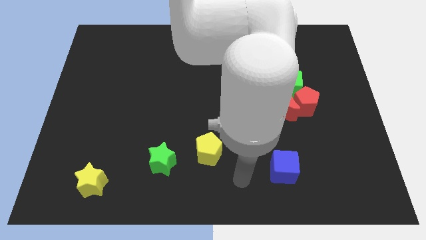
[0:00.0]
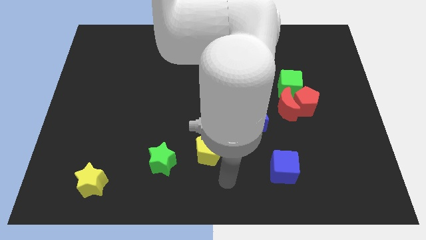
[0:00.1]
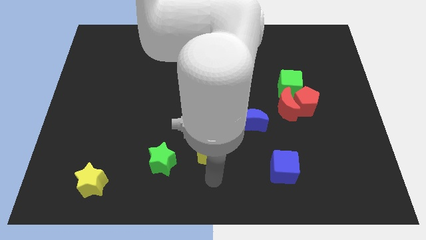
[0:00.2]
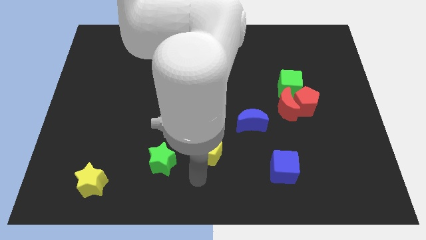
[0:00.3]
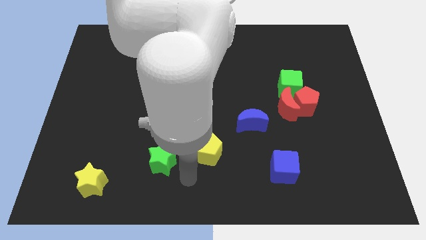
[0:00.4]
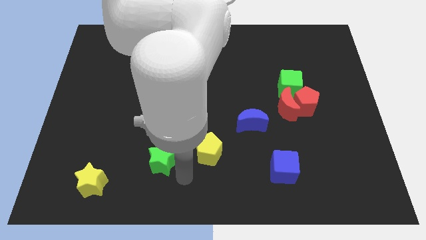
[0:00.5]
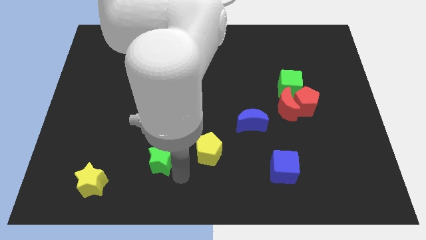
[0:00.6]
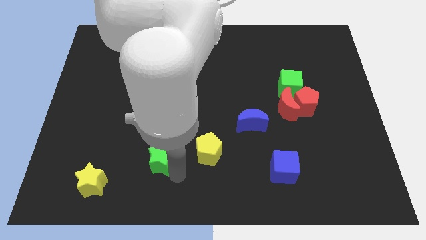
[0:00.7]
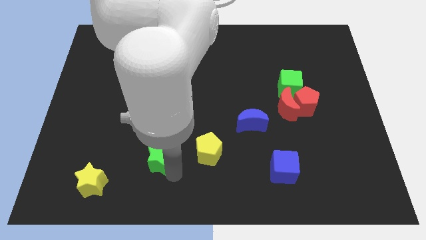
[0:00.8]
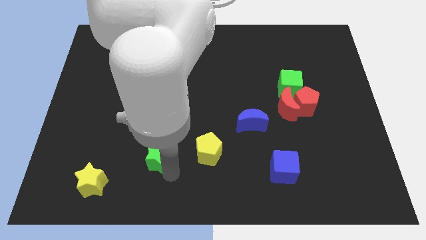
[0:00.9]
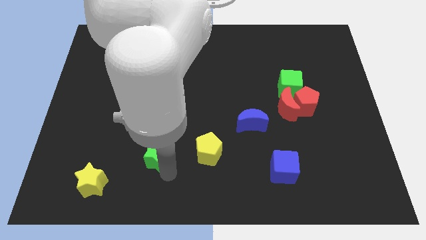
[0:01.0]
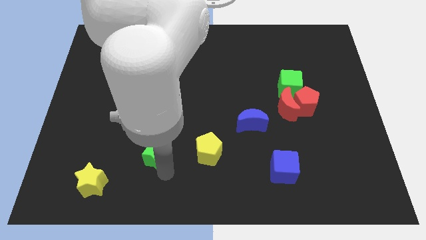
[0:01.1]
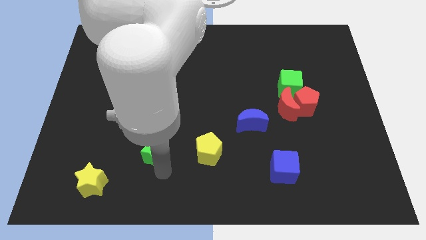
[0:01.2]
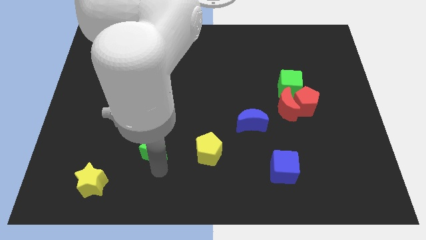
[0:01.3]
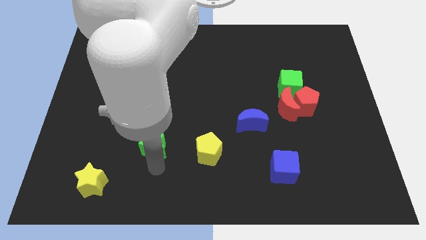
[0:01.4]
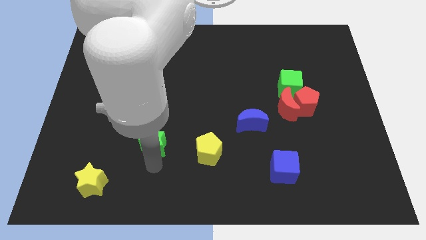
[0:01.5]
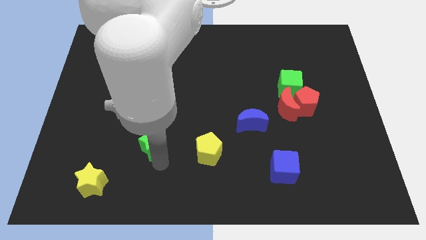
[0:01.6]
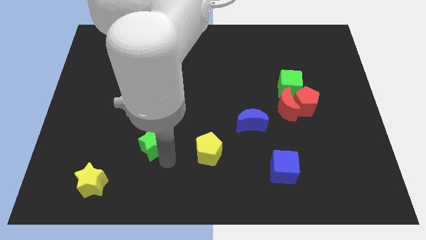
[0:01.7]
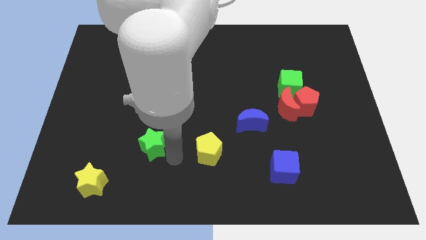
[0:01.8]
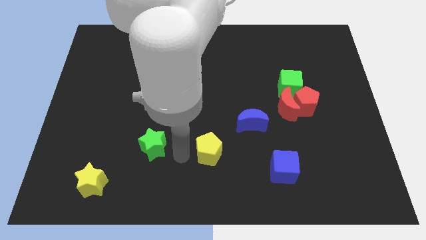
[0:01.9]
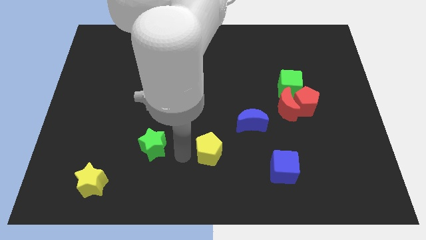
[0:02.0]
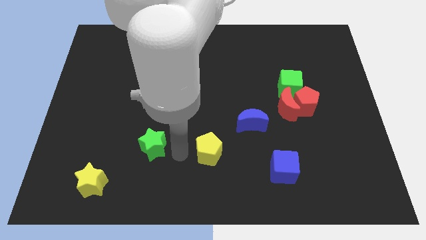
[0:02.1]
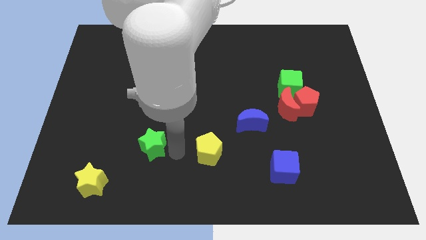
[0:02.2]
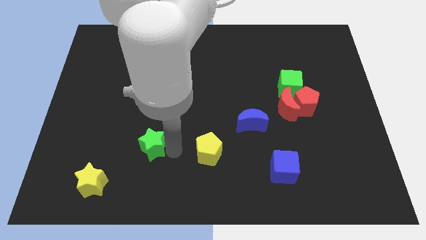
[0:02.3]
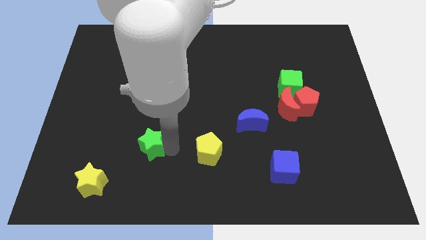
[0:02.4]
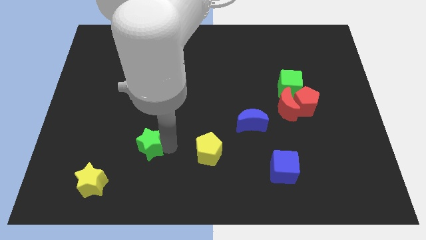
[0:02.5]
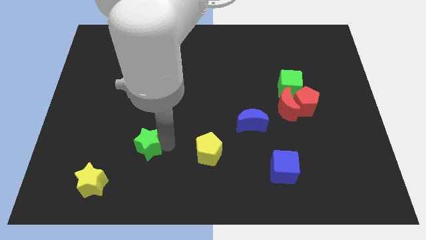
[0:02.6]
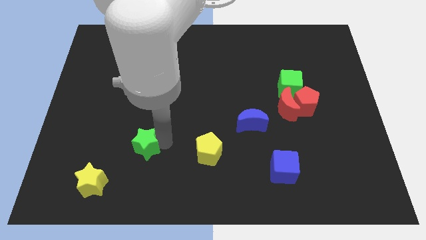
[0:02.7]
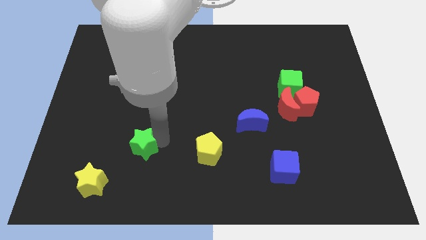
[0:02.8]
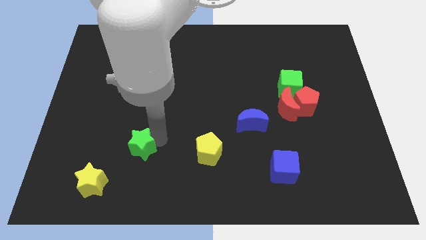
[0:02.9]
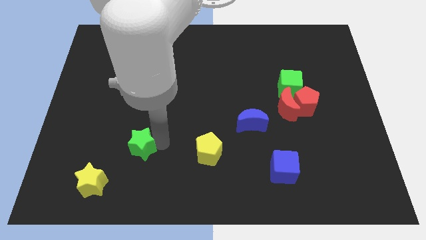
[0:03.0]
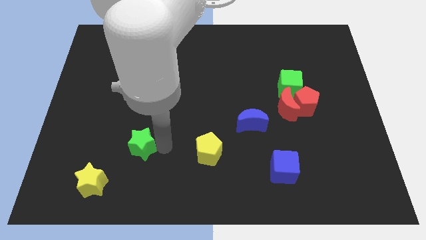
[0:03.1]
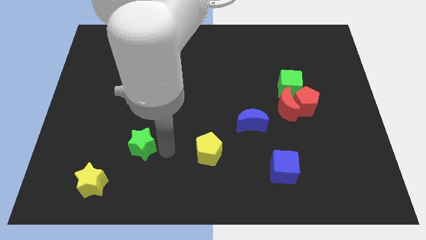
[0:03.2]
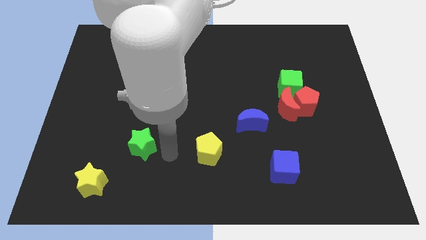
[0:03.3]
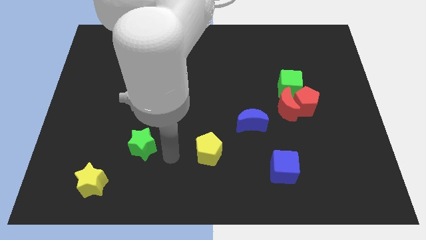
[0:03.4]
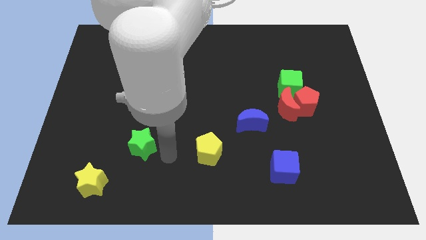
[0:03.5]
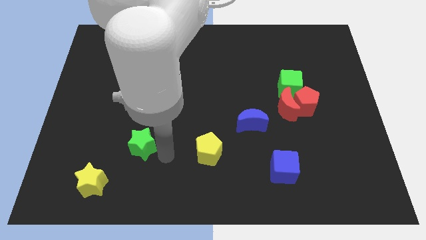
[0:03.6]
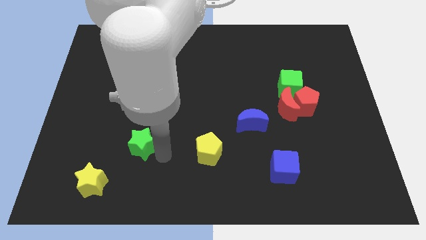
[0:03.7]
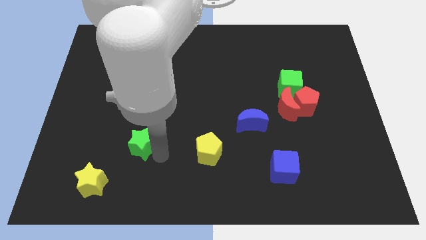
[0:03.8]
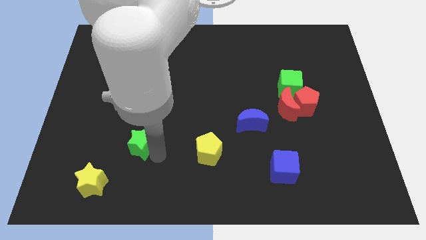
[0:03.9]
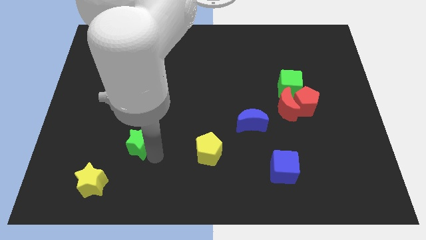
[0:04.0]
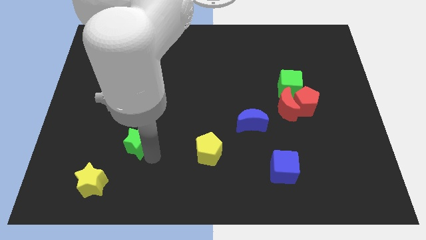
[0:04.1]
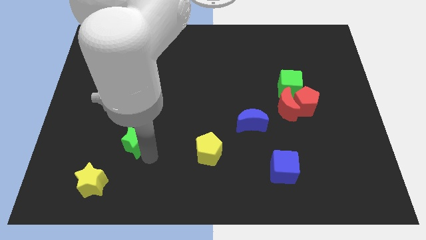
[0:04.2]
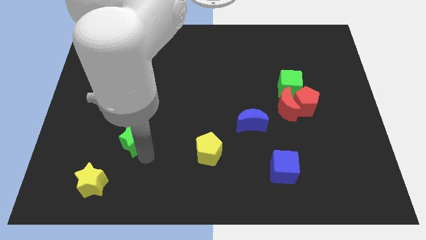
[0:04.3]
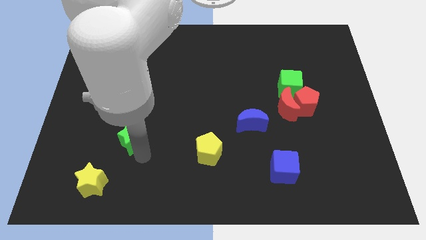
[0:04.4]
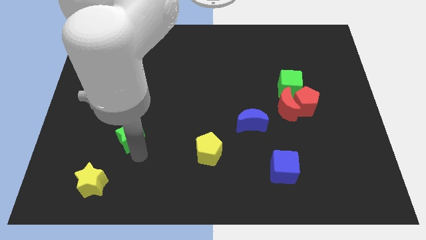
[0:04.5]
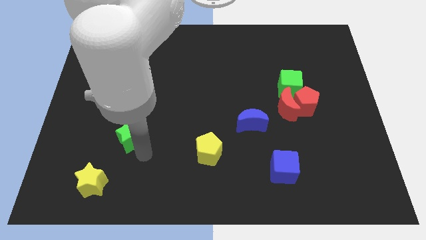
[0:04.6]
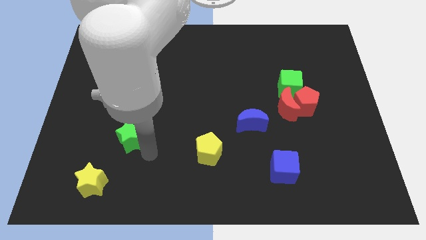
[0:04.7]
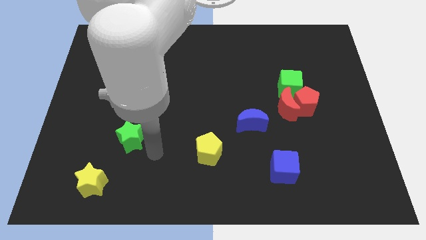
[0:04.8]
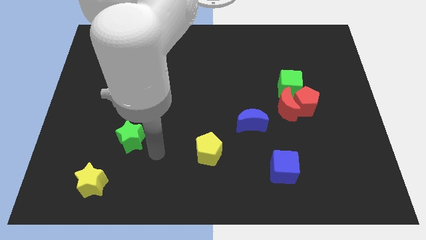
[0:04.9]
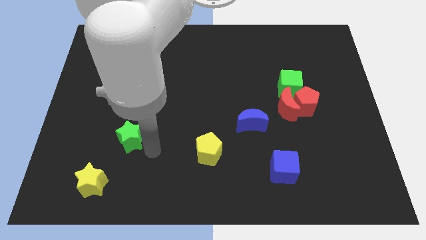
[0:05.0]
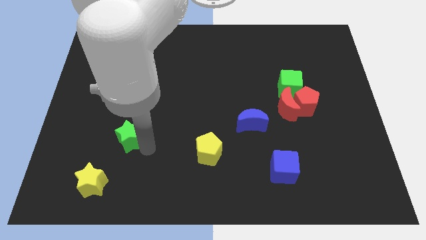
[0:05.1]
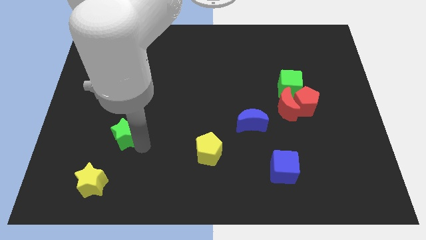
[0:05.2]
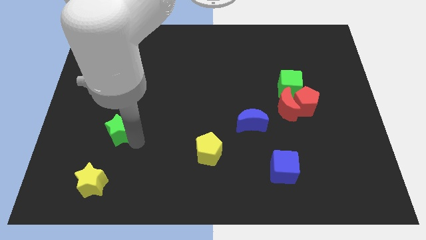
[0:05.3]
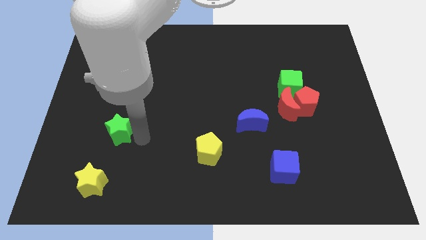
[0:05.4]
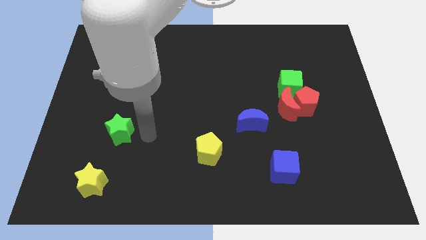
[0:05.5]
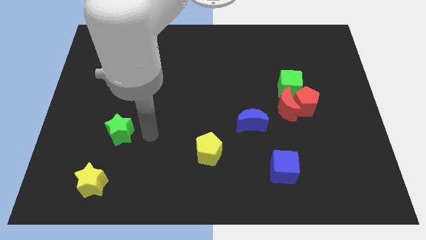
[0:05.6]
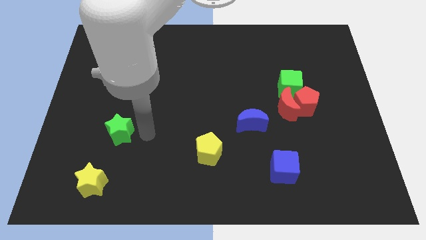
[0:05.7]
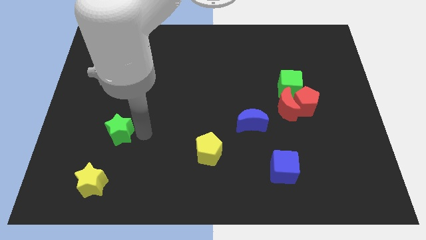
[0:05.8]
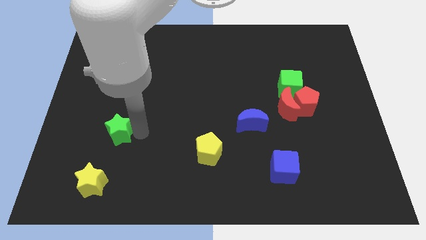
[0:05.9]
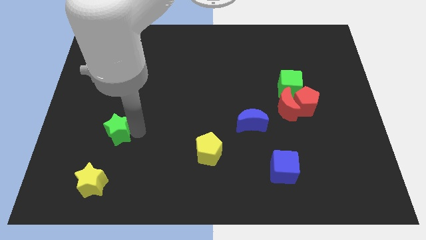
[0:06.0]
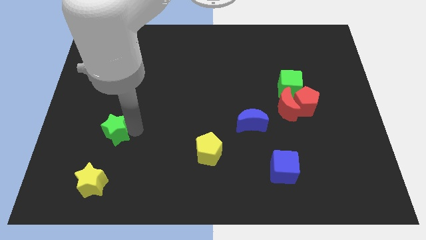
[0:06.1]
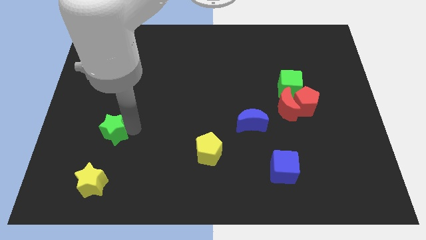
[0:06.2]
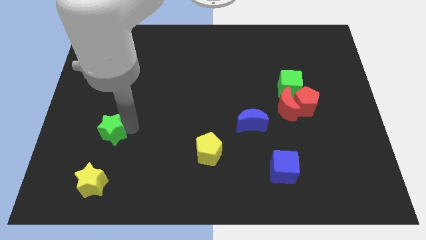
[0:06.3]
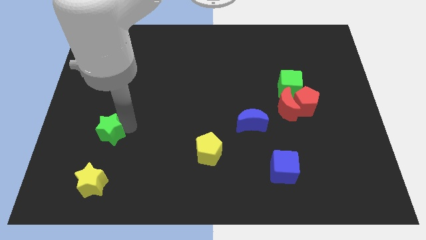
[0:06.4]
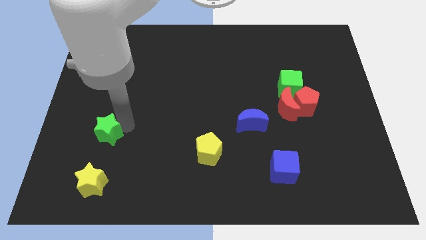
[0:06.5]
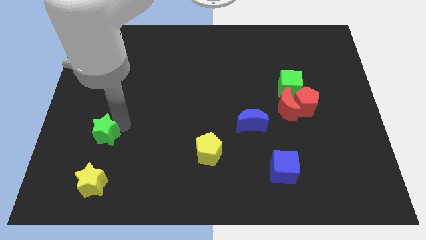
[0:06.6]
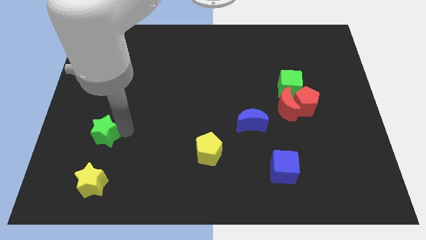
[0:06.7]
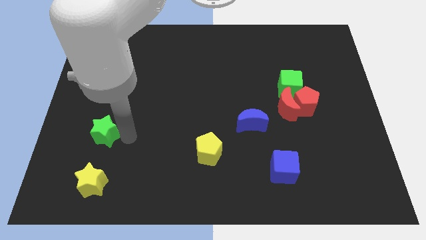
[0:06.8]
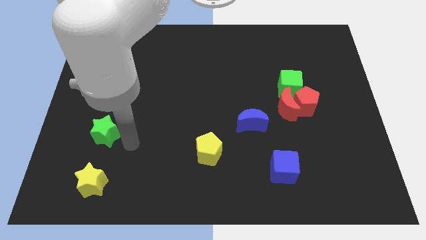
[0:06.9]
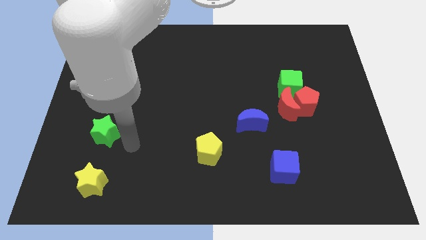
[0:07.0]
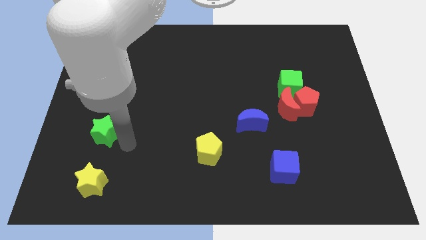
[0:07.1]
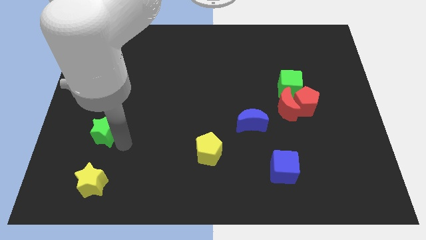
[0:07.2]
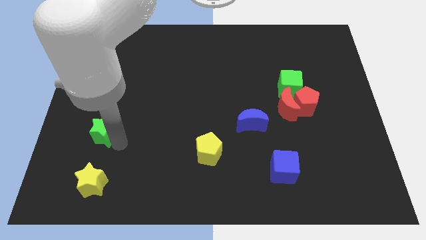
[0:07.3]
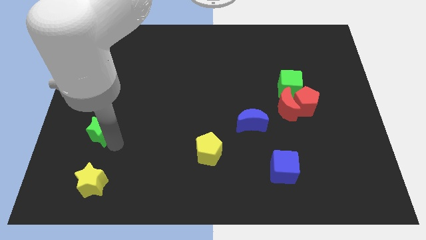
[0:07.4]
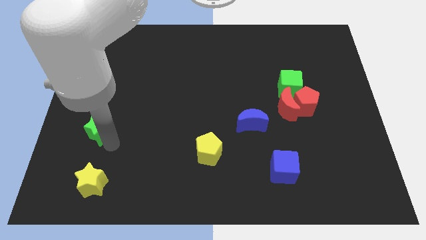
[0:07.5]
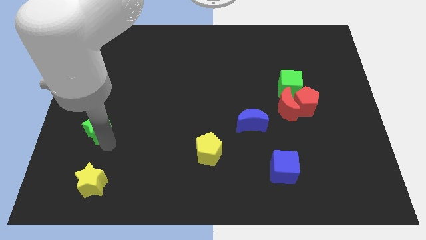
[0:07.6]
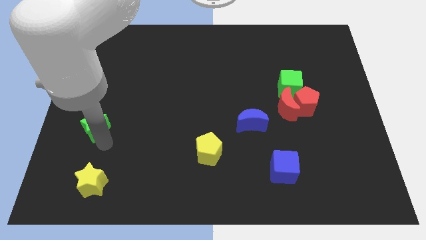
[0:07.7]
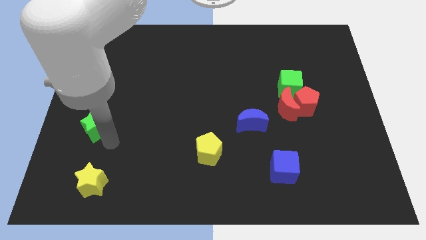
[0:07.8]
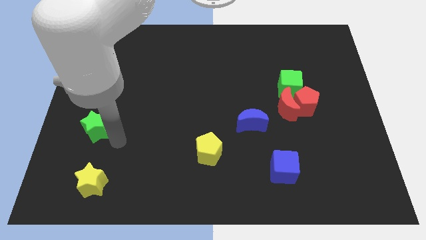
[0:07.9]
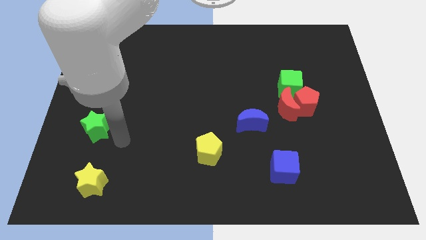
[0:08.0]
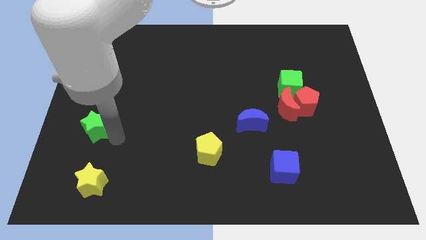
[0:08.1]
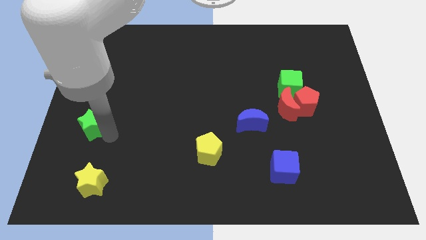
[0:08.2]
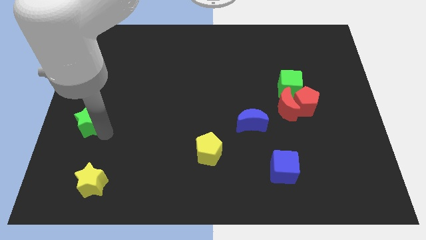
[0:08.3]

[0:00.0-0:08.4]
move the green star to the left side of the board
